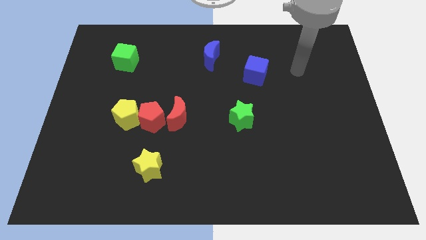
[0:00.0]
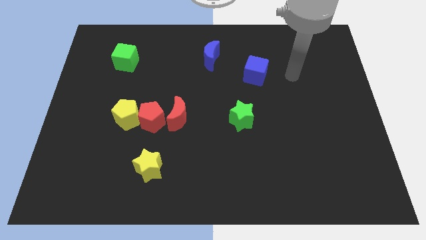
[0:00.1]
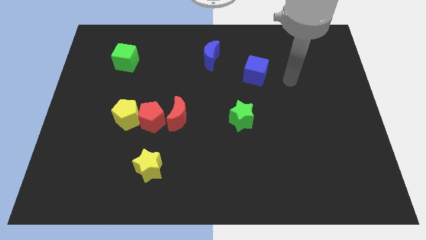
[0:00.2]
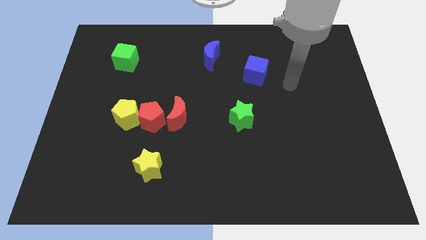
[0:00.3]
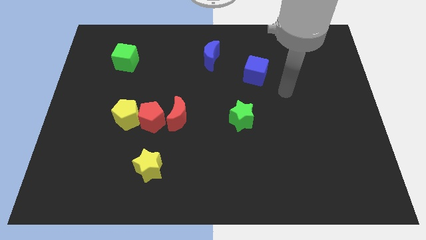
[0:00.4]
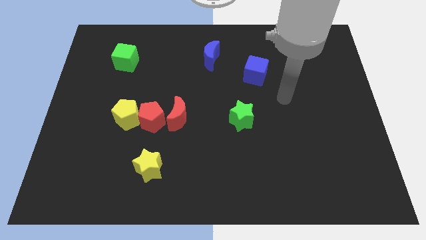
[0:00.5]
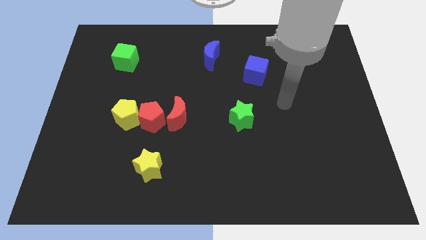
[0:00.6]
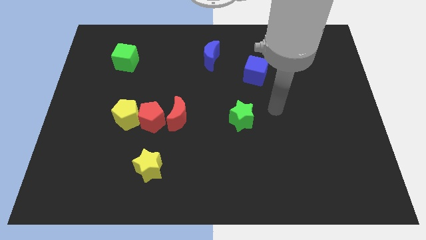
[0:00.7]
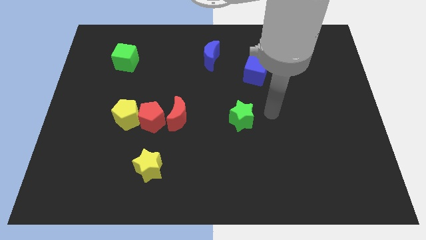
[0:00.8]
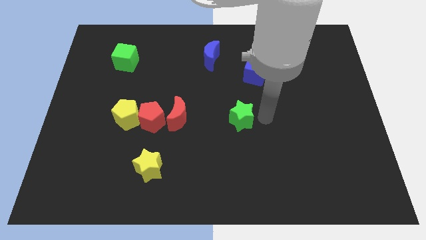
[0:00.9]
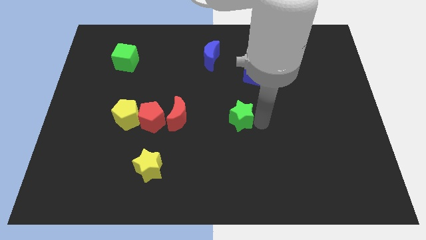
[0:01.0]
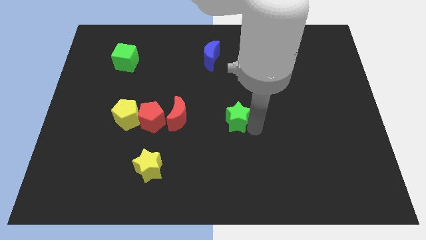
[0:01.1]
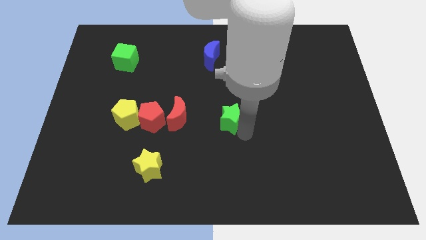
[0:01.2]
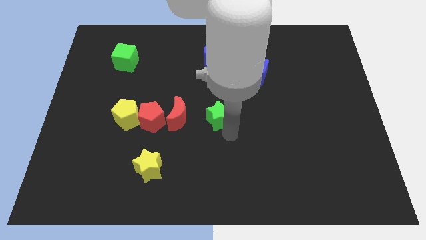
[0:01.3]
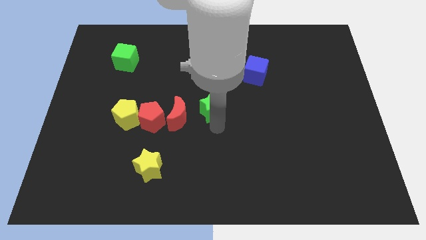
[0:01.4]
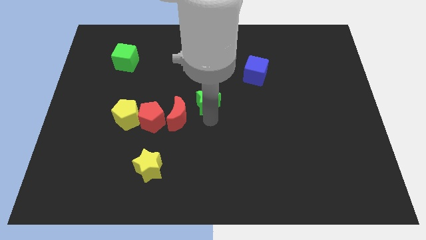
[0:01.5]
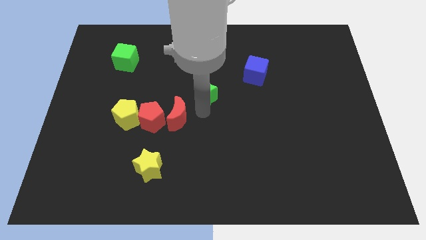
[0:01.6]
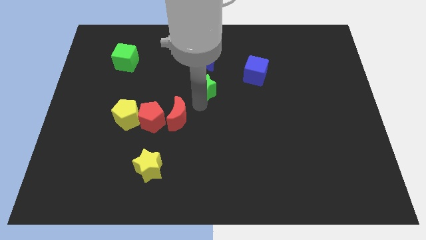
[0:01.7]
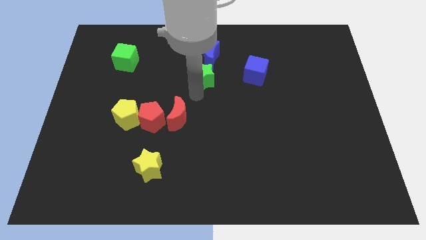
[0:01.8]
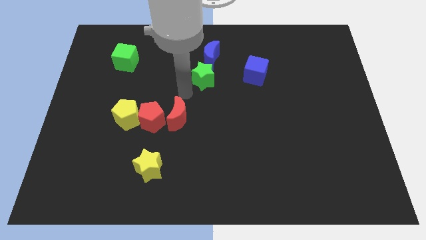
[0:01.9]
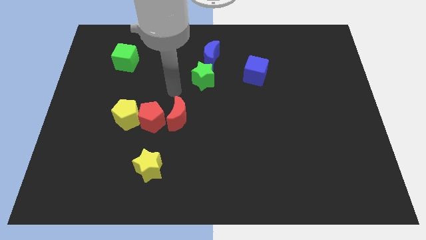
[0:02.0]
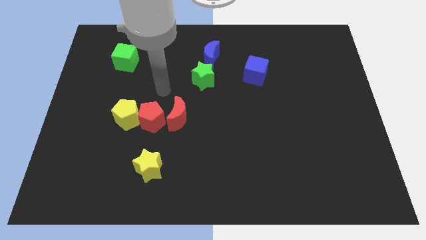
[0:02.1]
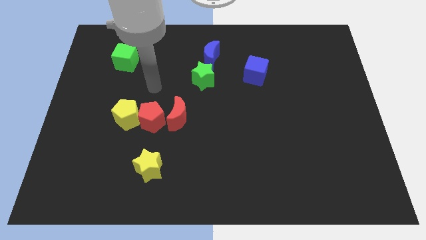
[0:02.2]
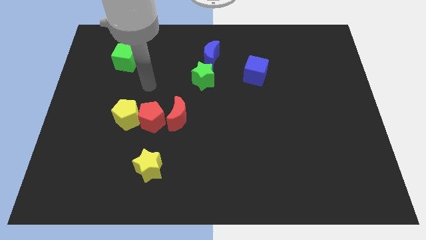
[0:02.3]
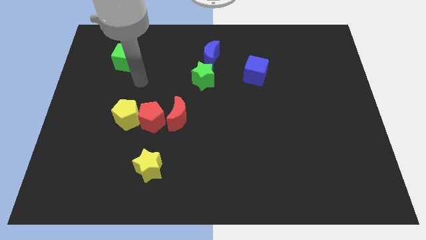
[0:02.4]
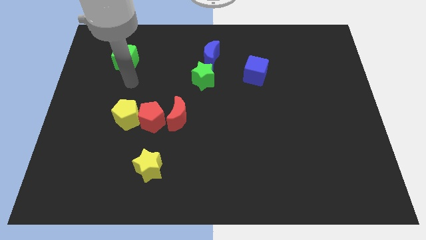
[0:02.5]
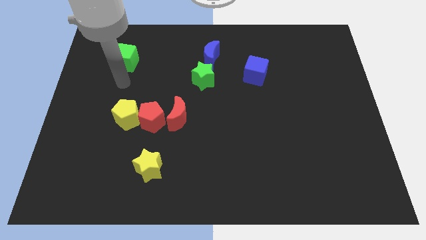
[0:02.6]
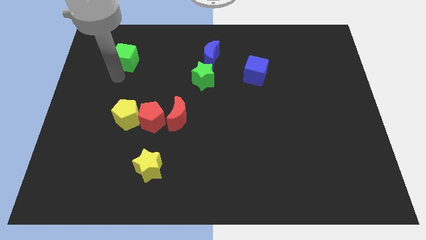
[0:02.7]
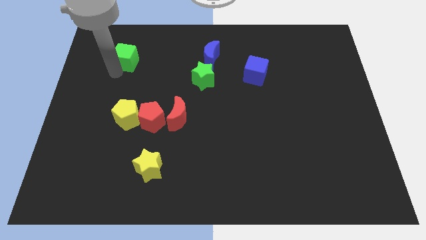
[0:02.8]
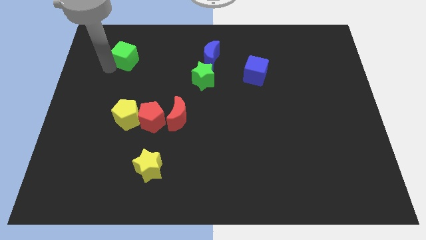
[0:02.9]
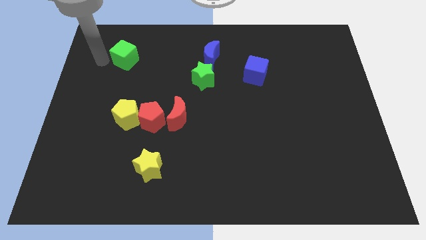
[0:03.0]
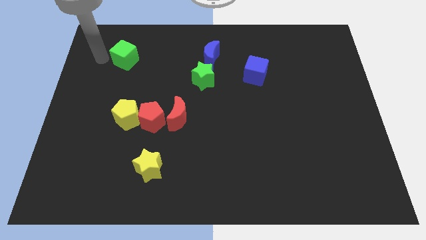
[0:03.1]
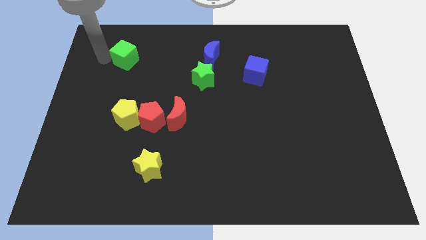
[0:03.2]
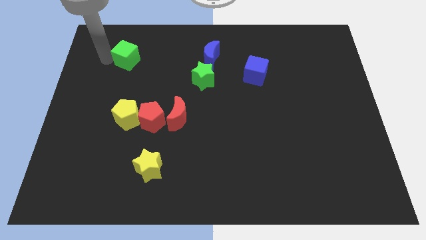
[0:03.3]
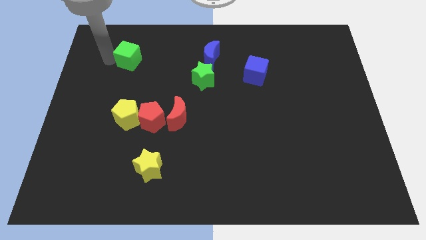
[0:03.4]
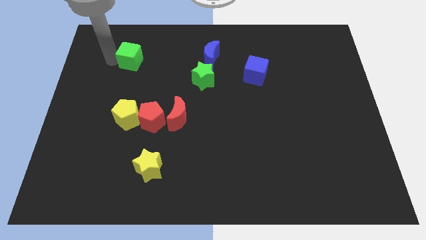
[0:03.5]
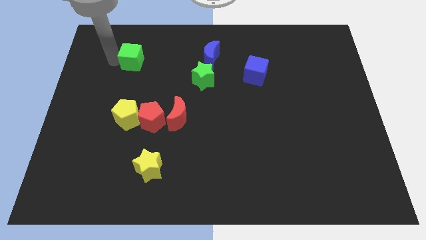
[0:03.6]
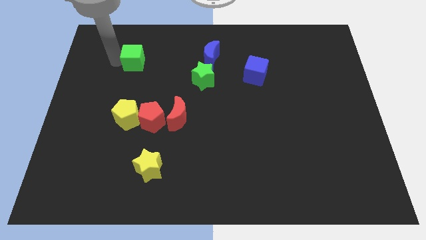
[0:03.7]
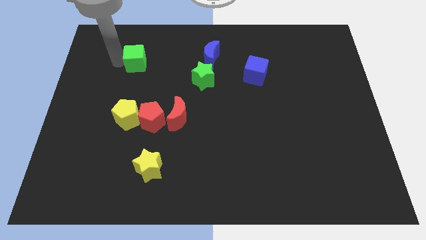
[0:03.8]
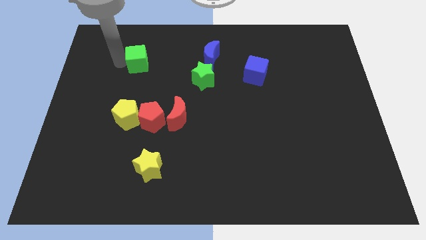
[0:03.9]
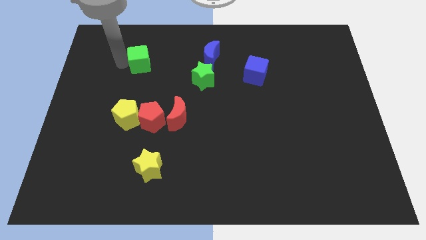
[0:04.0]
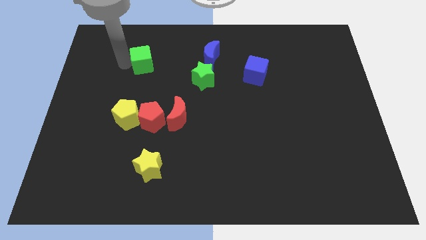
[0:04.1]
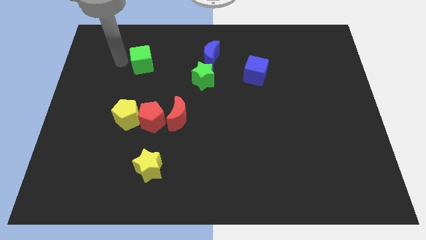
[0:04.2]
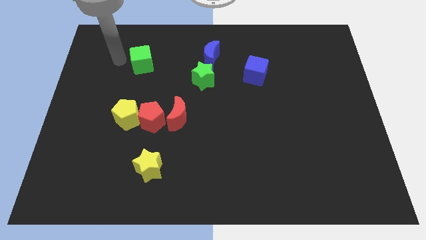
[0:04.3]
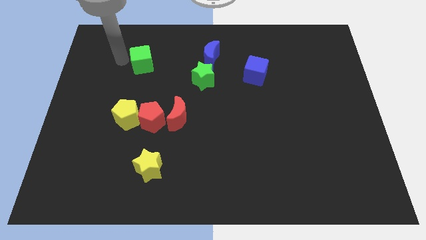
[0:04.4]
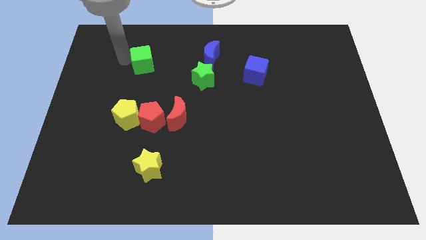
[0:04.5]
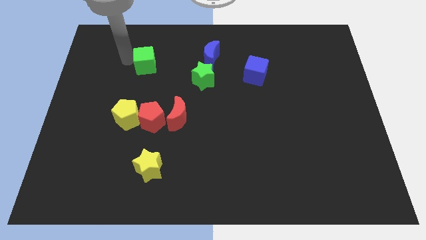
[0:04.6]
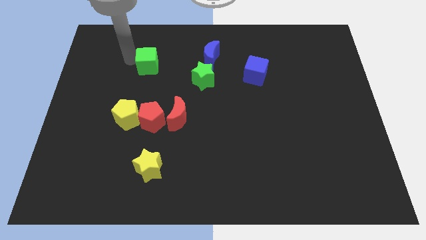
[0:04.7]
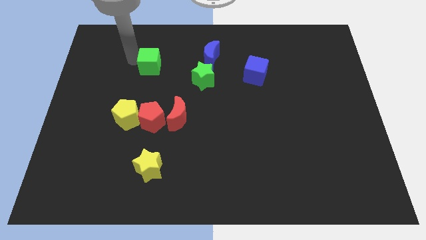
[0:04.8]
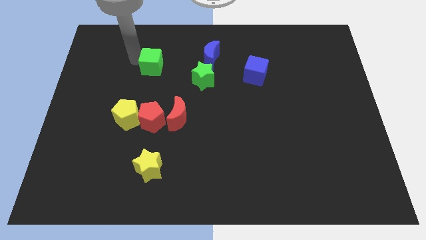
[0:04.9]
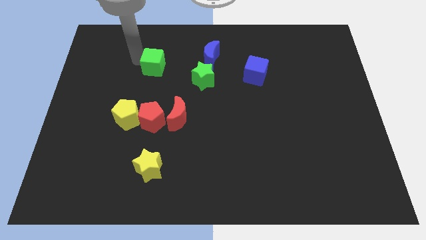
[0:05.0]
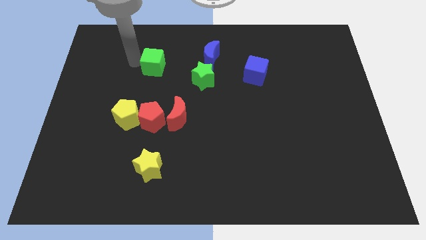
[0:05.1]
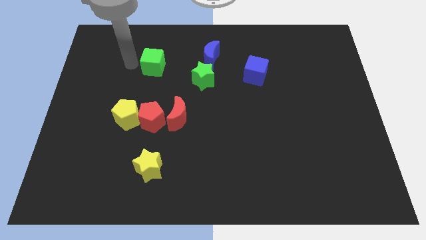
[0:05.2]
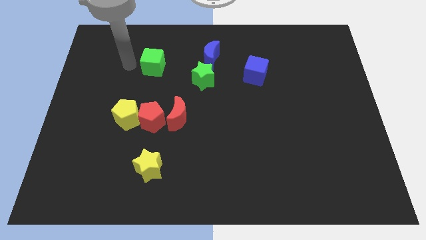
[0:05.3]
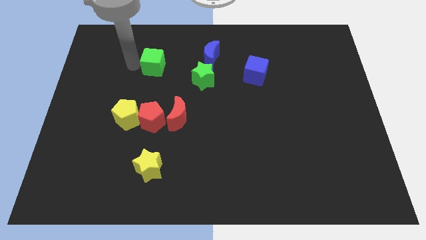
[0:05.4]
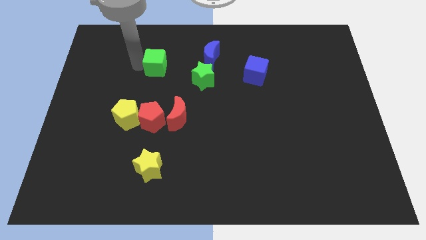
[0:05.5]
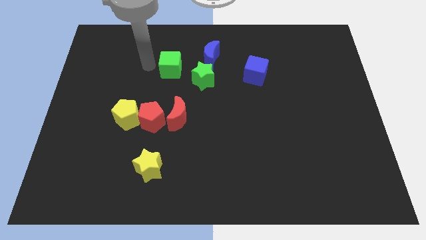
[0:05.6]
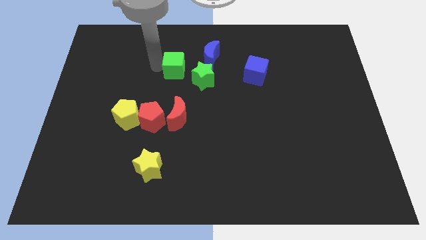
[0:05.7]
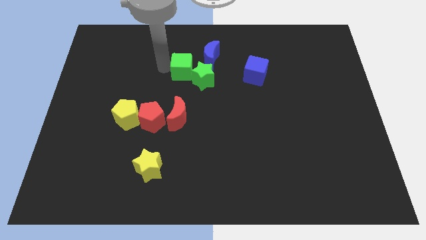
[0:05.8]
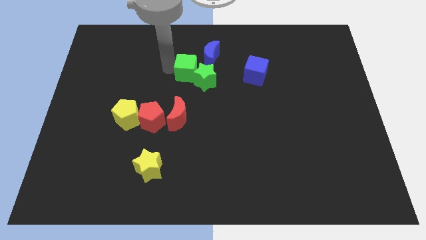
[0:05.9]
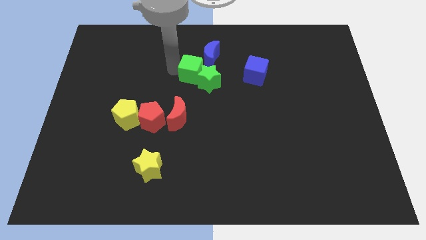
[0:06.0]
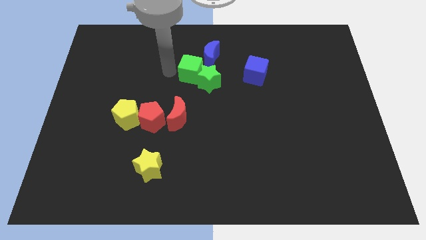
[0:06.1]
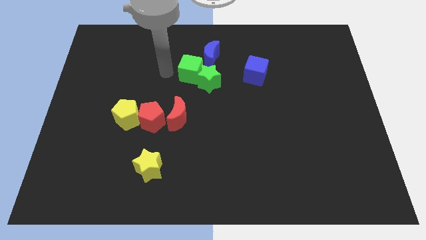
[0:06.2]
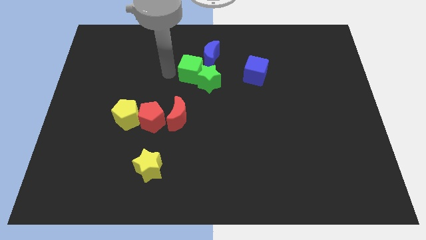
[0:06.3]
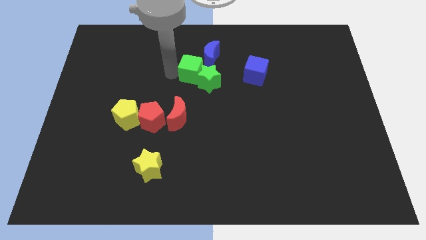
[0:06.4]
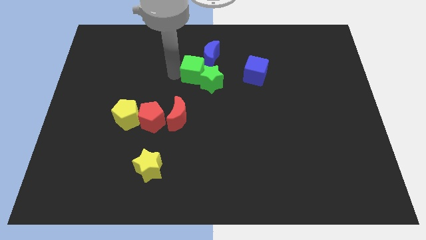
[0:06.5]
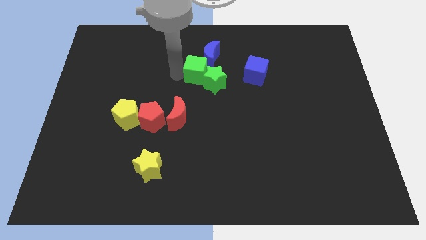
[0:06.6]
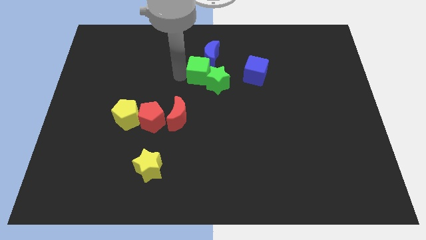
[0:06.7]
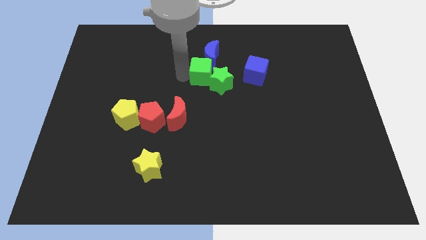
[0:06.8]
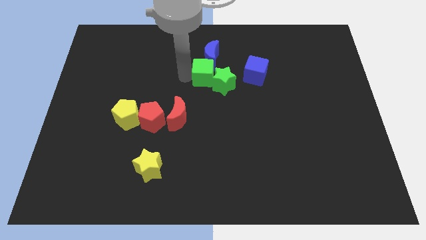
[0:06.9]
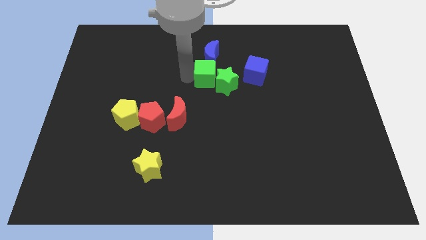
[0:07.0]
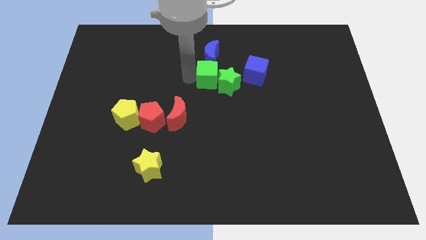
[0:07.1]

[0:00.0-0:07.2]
push the green cube to the right

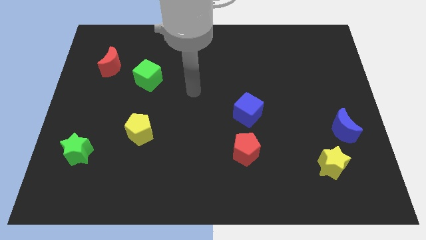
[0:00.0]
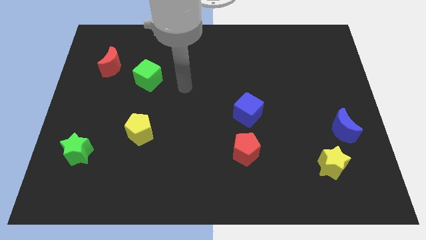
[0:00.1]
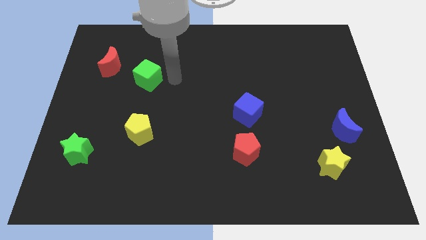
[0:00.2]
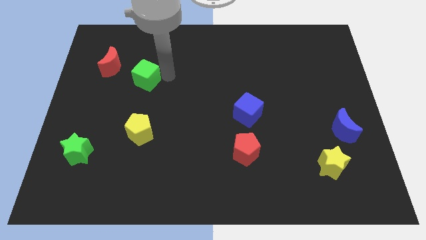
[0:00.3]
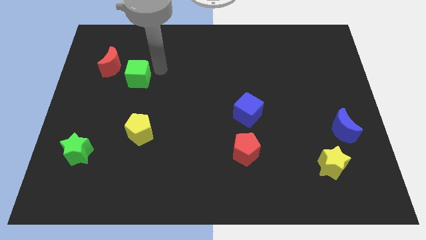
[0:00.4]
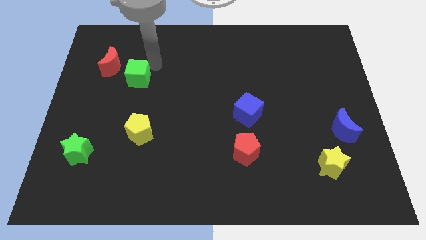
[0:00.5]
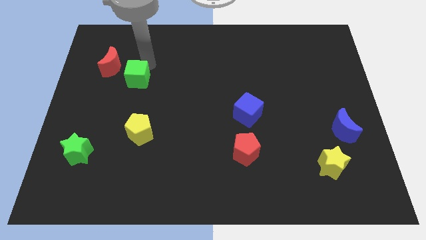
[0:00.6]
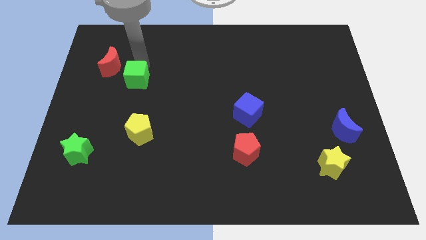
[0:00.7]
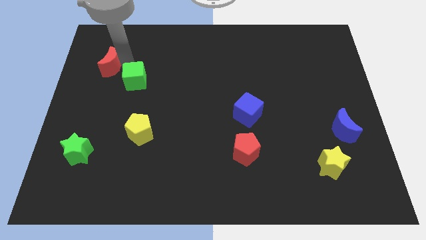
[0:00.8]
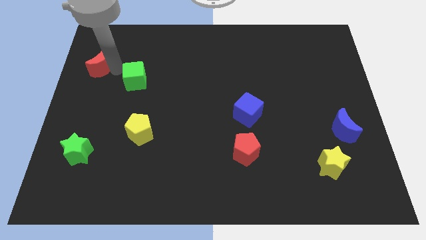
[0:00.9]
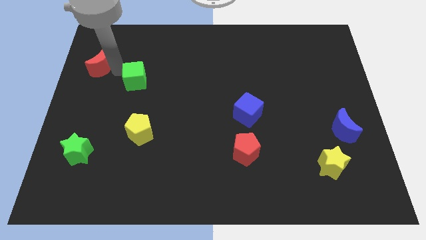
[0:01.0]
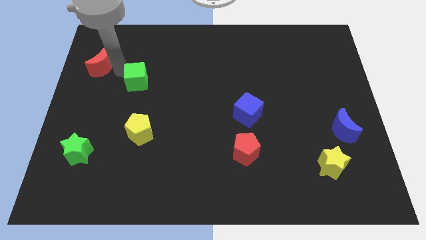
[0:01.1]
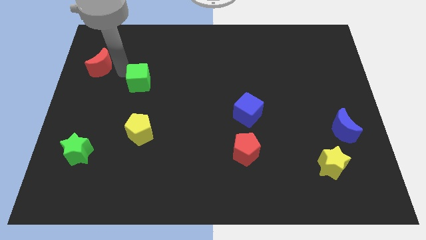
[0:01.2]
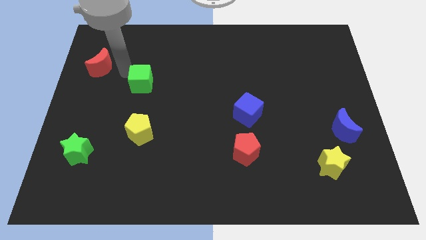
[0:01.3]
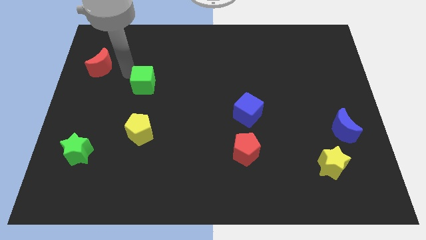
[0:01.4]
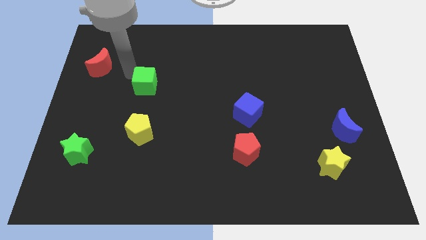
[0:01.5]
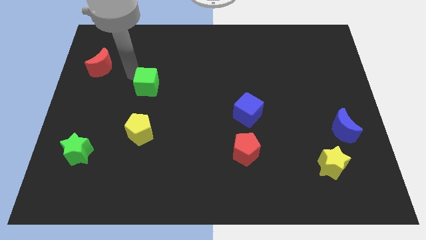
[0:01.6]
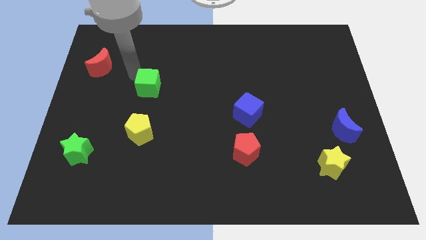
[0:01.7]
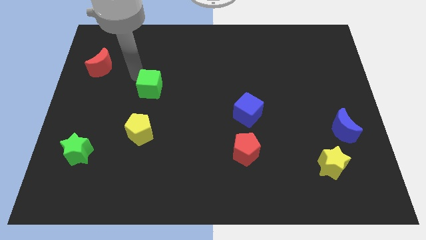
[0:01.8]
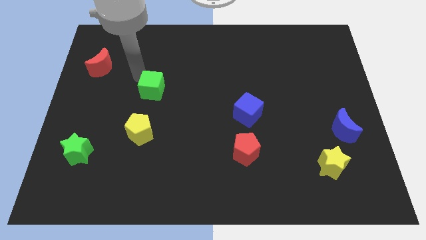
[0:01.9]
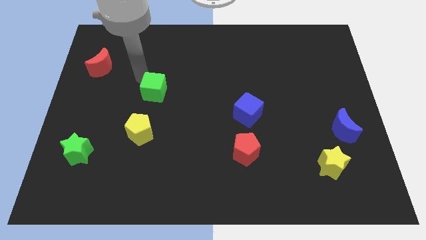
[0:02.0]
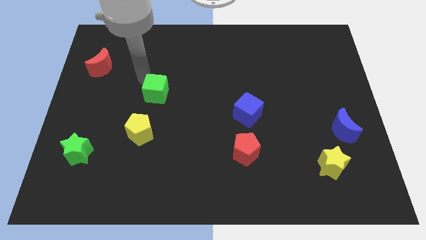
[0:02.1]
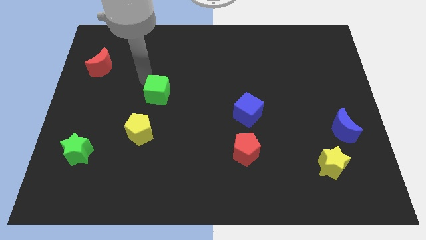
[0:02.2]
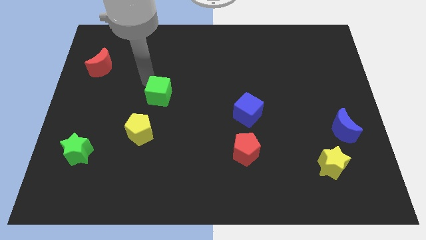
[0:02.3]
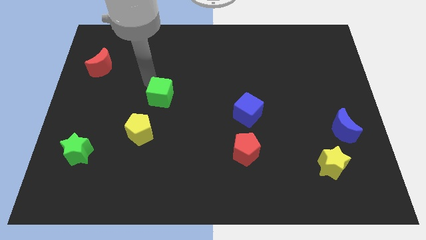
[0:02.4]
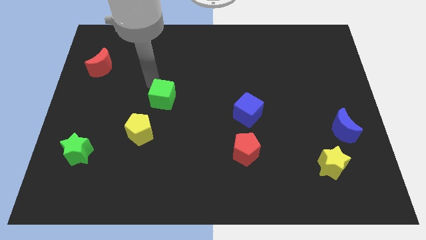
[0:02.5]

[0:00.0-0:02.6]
push the green cube downwards and then to the right a little
